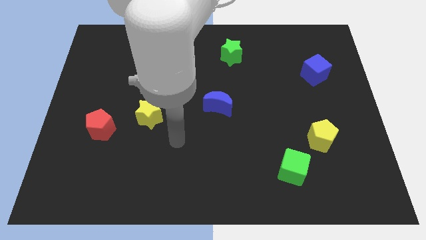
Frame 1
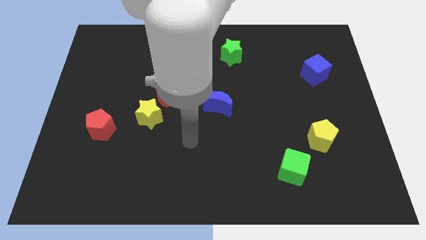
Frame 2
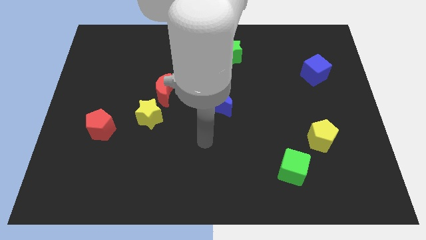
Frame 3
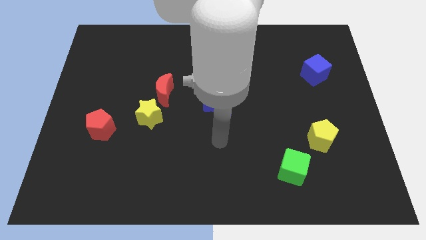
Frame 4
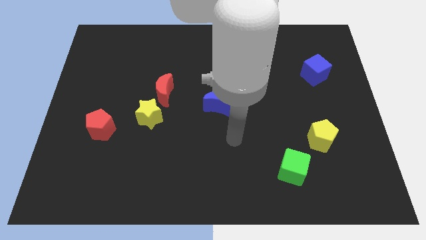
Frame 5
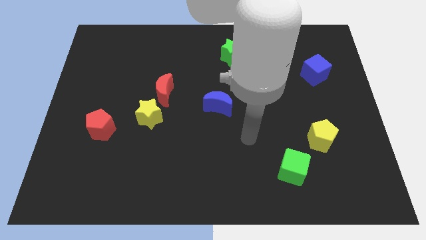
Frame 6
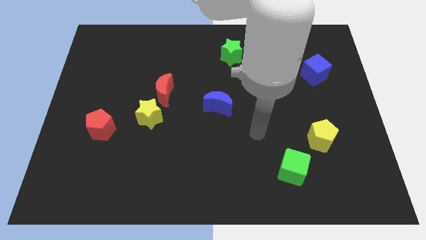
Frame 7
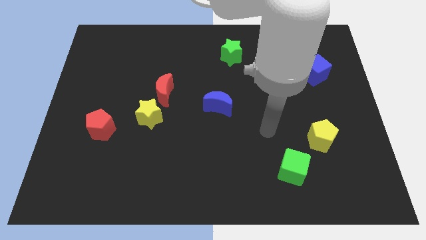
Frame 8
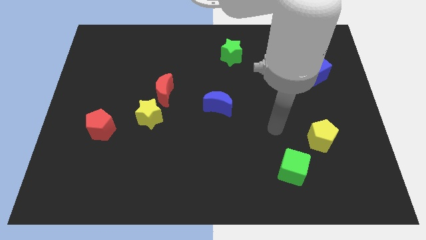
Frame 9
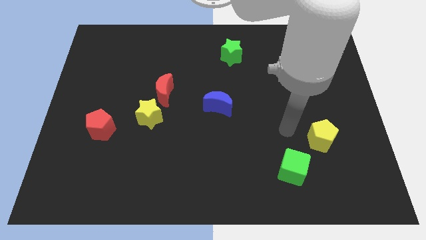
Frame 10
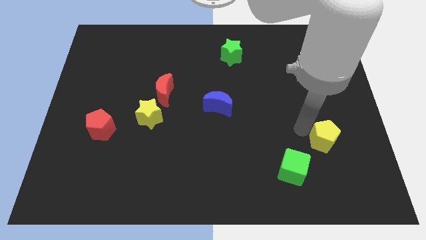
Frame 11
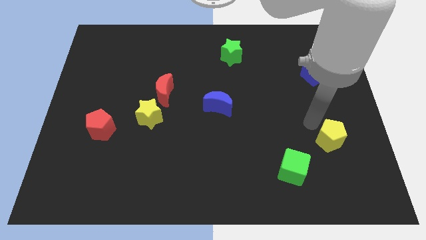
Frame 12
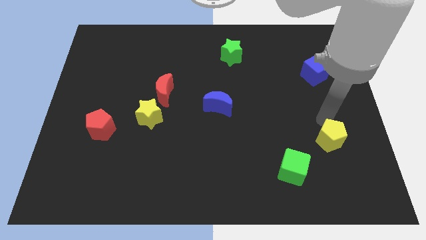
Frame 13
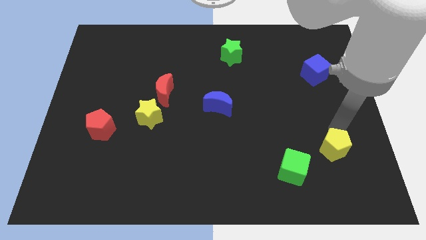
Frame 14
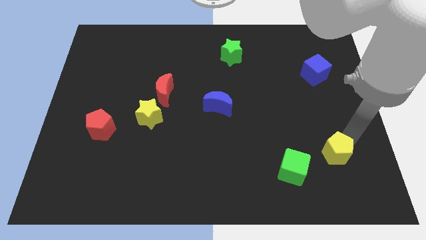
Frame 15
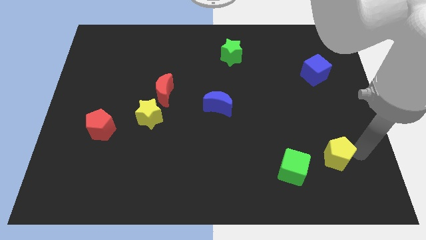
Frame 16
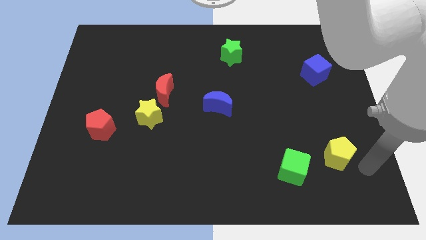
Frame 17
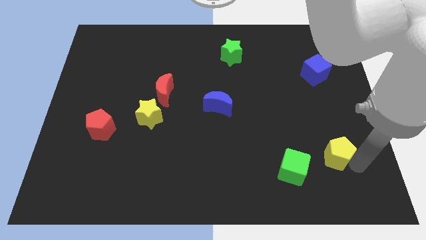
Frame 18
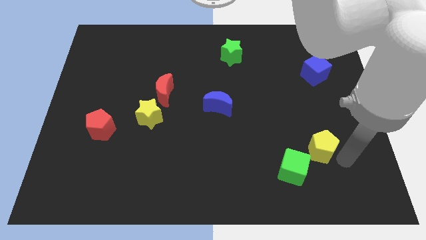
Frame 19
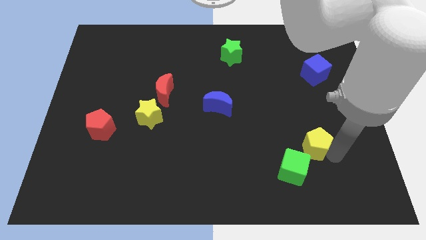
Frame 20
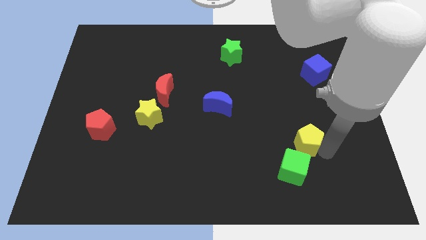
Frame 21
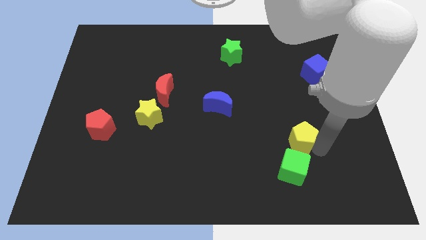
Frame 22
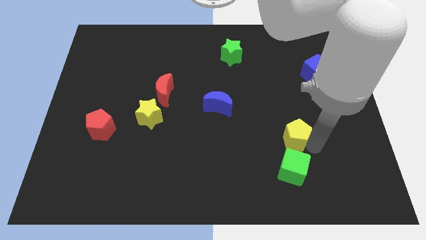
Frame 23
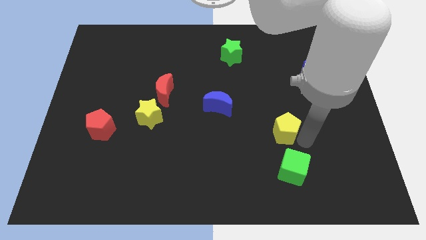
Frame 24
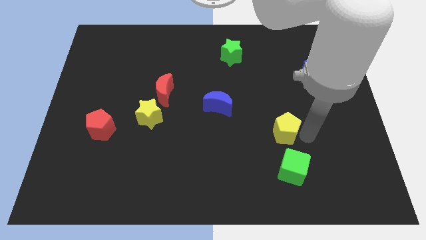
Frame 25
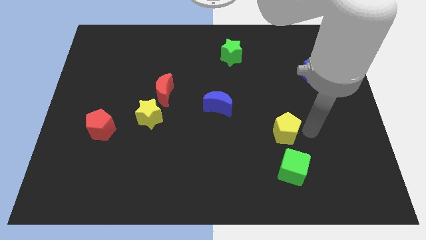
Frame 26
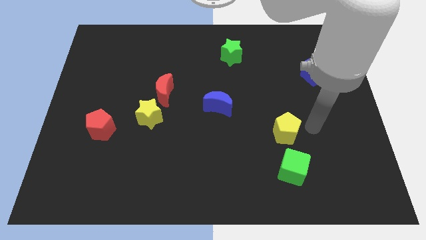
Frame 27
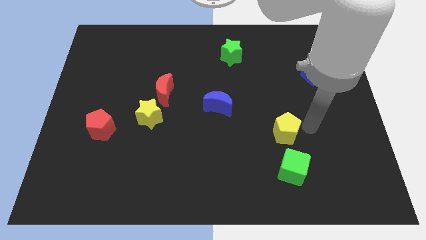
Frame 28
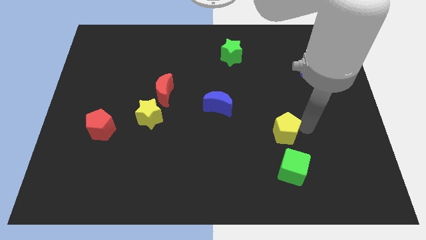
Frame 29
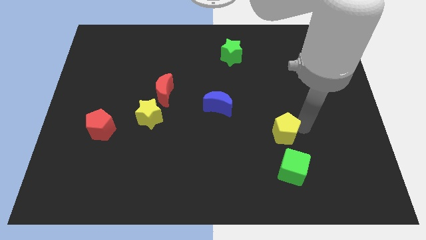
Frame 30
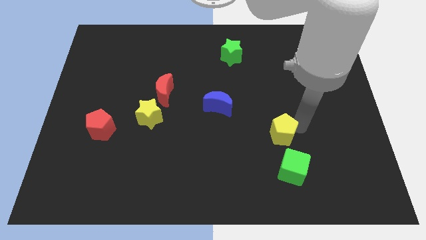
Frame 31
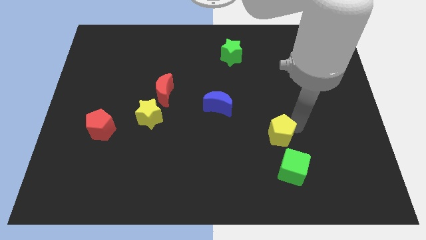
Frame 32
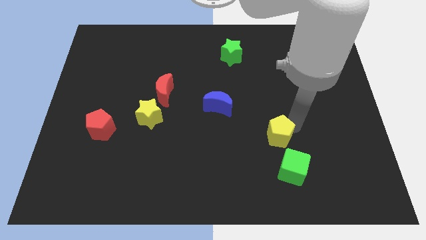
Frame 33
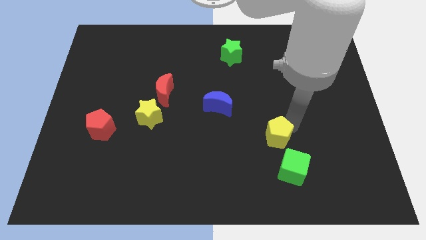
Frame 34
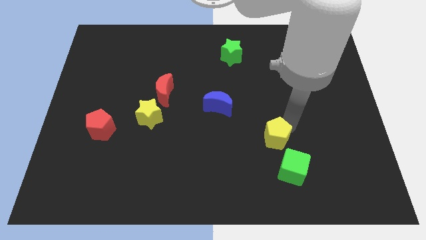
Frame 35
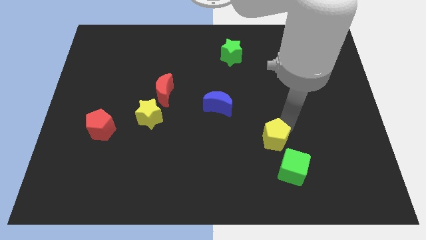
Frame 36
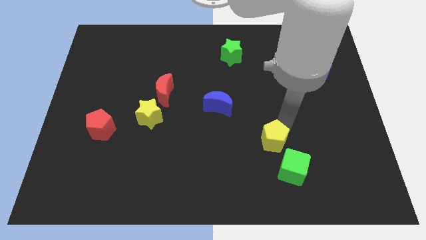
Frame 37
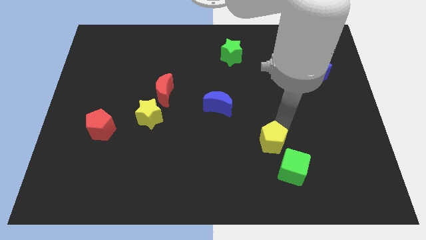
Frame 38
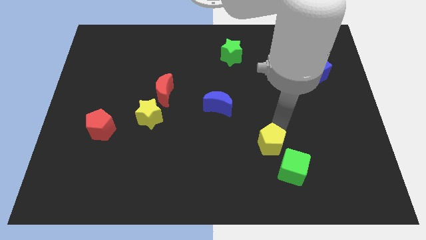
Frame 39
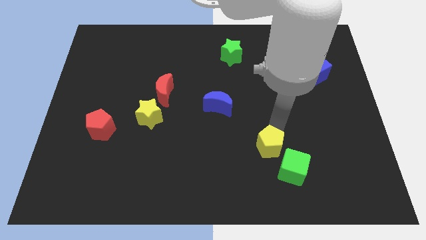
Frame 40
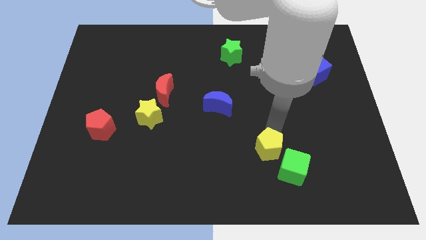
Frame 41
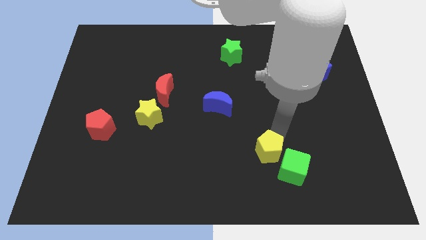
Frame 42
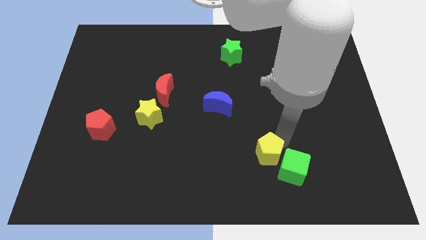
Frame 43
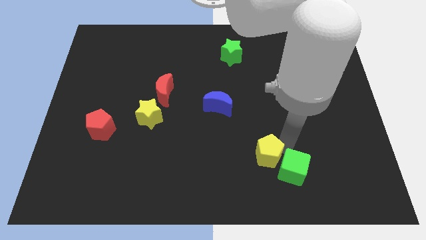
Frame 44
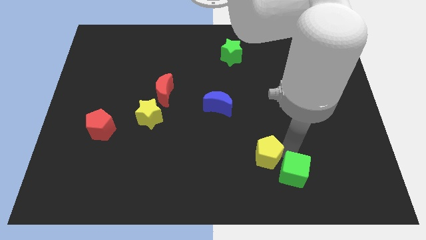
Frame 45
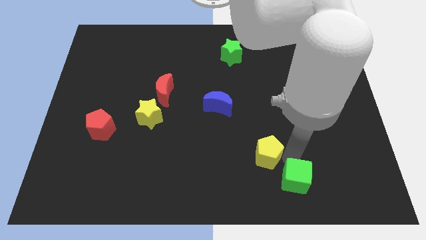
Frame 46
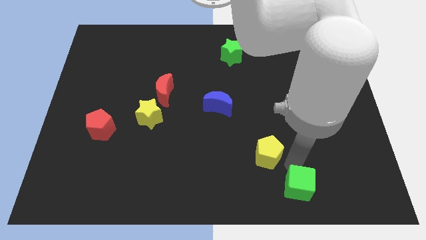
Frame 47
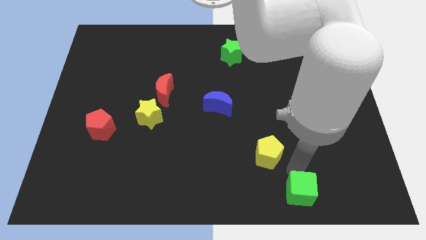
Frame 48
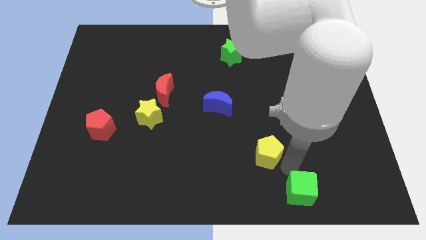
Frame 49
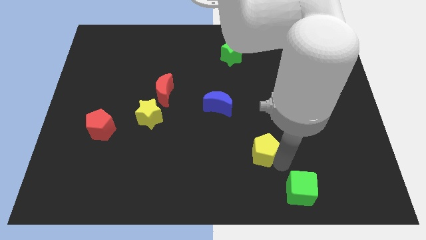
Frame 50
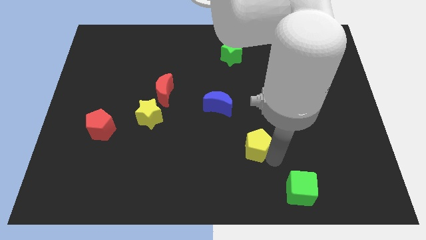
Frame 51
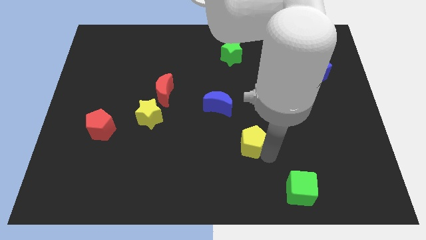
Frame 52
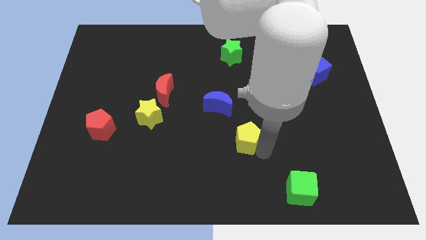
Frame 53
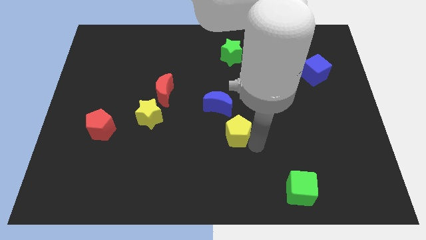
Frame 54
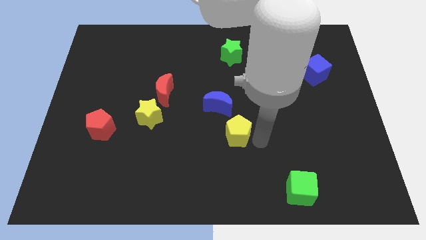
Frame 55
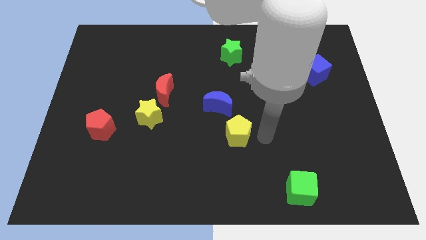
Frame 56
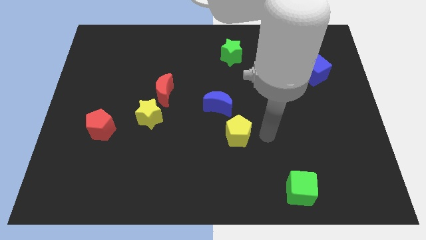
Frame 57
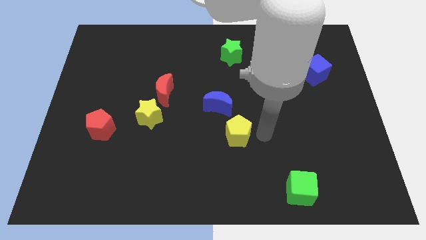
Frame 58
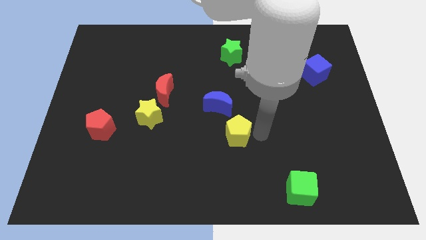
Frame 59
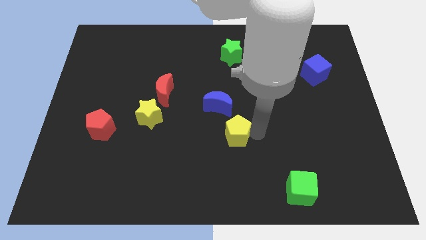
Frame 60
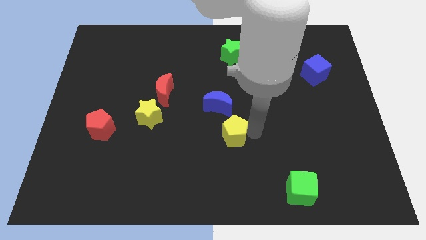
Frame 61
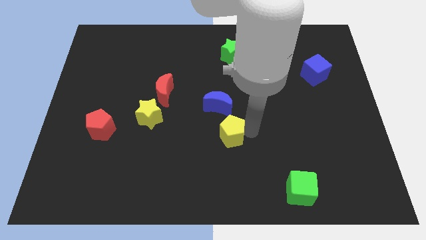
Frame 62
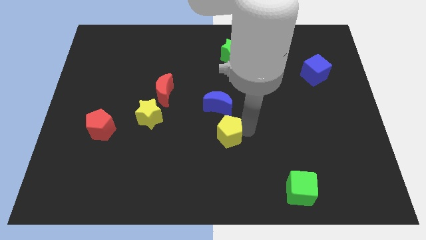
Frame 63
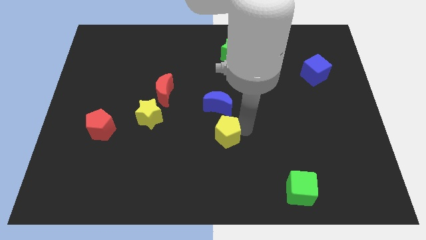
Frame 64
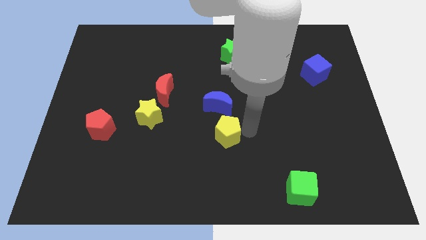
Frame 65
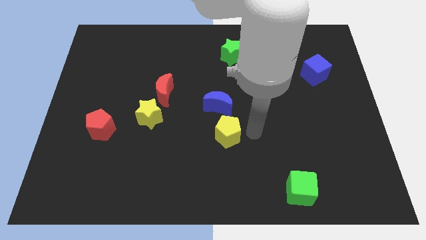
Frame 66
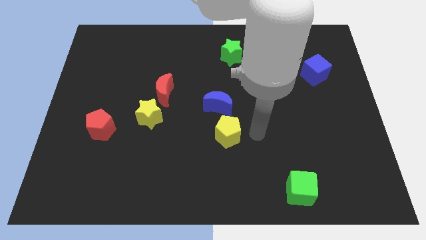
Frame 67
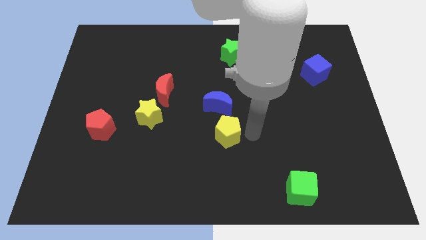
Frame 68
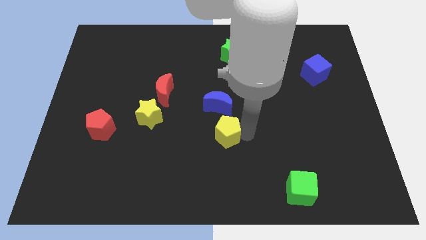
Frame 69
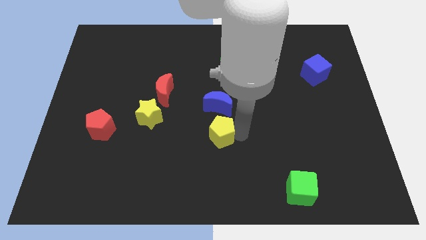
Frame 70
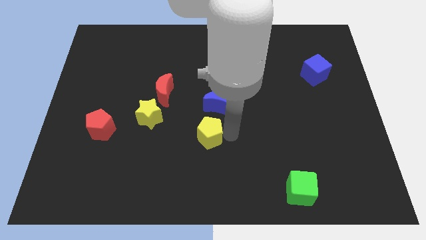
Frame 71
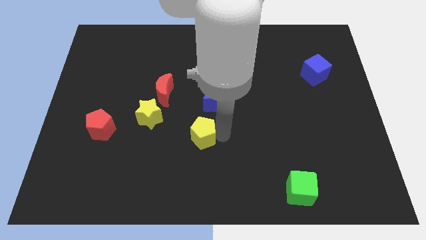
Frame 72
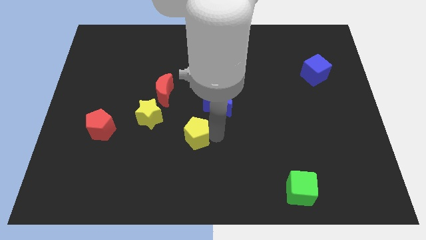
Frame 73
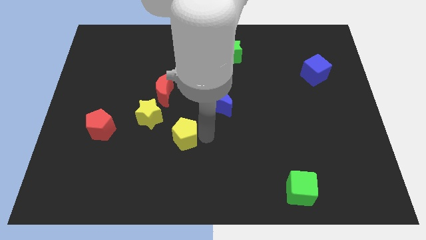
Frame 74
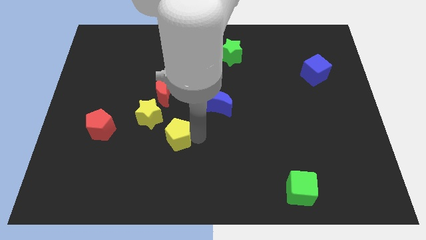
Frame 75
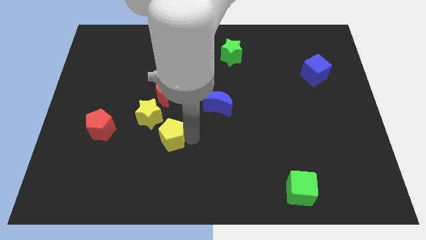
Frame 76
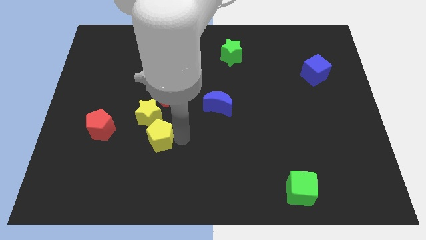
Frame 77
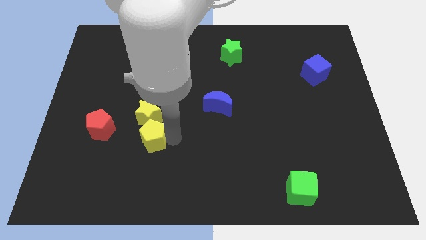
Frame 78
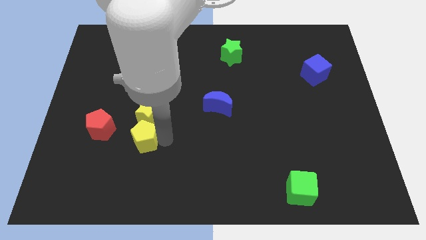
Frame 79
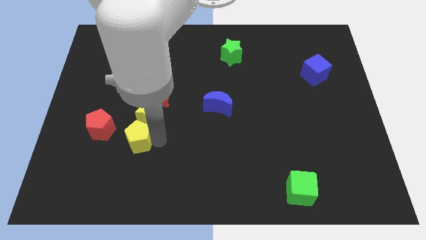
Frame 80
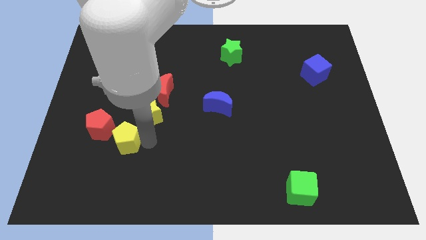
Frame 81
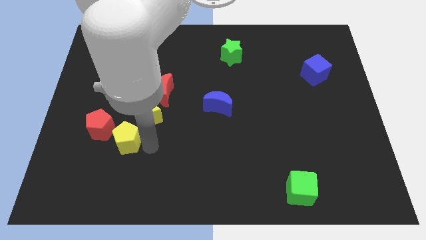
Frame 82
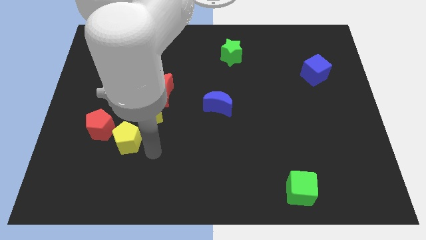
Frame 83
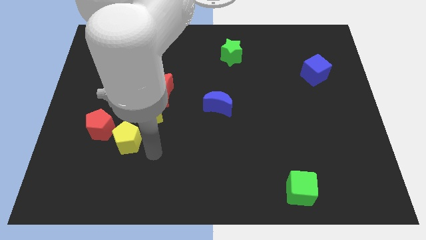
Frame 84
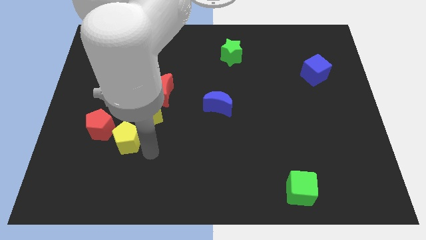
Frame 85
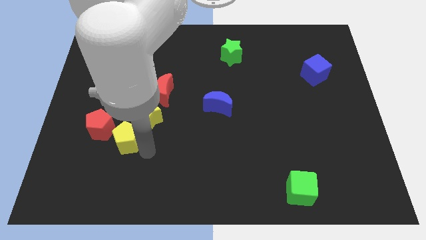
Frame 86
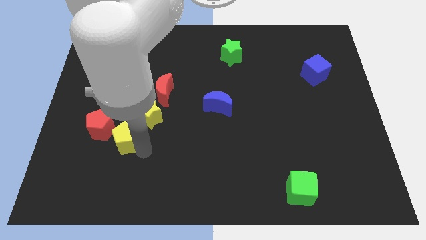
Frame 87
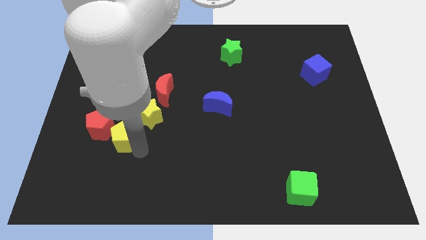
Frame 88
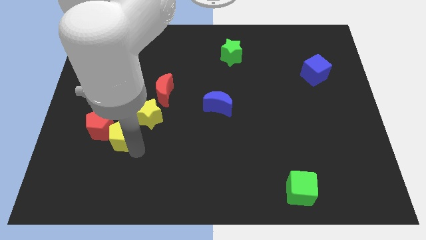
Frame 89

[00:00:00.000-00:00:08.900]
push the yellow pentagon close to the red pentagon
